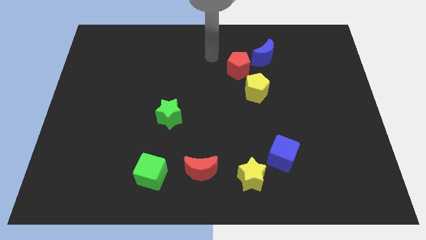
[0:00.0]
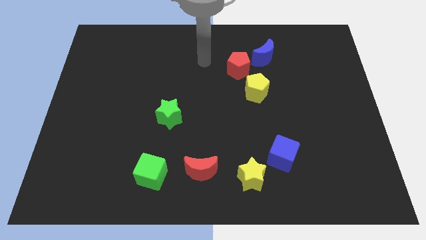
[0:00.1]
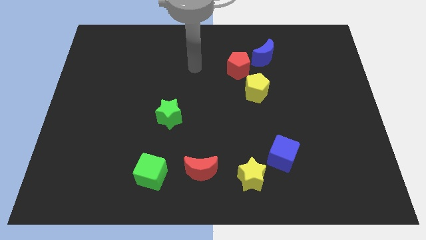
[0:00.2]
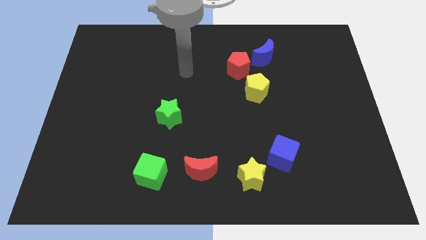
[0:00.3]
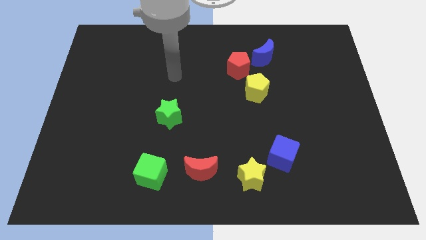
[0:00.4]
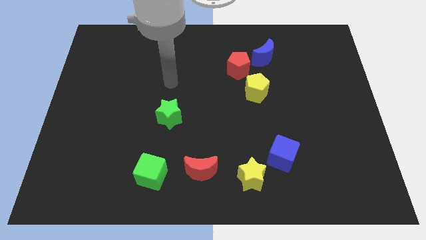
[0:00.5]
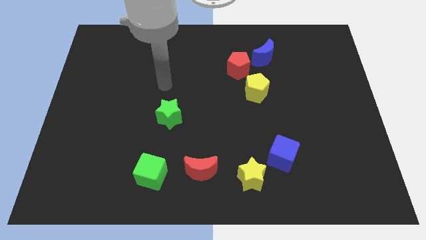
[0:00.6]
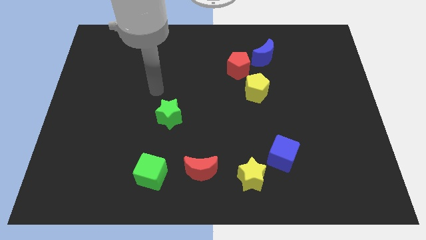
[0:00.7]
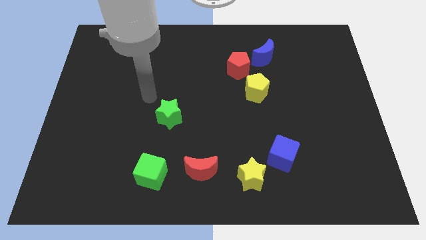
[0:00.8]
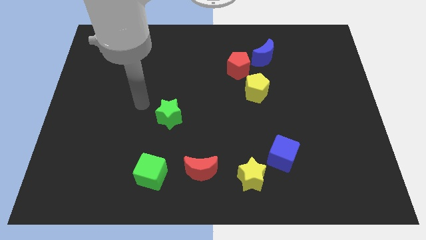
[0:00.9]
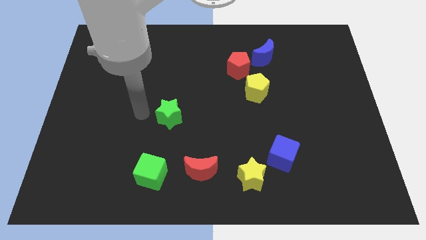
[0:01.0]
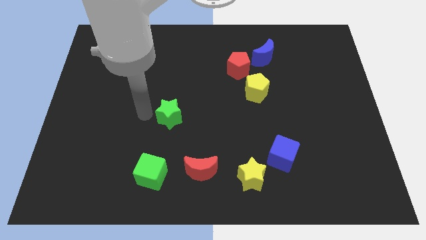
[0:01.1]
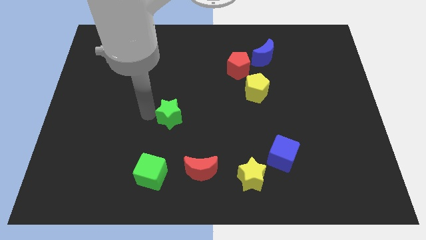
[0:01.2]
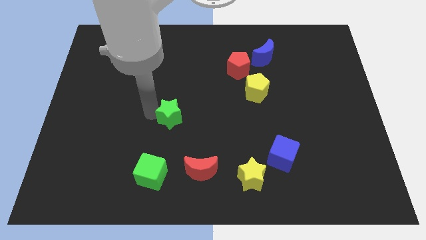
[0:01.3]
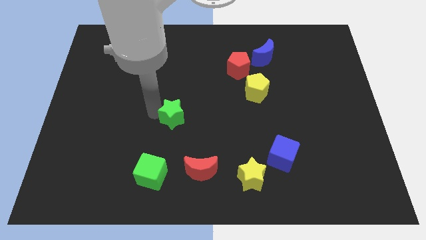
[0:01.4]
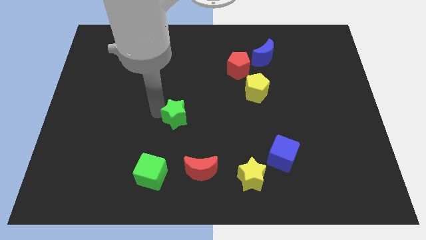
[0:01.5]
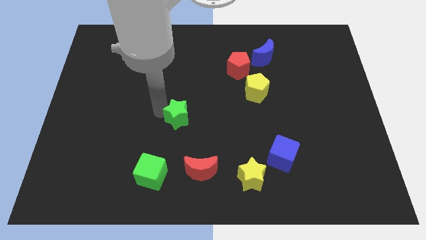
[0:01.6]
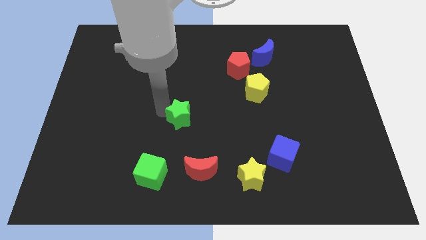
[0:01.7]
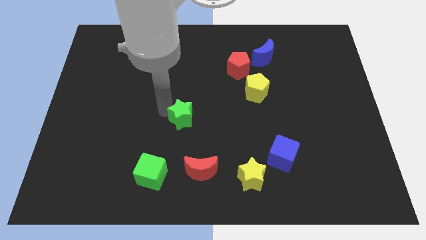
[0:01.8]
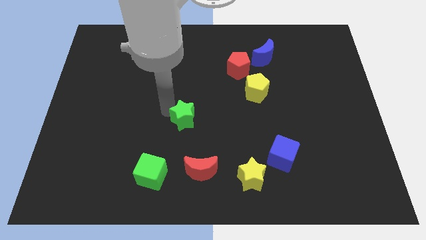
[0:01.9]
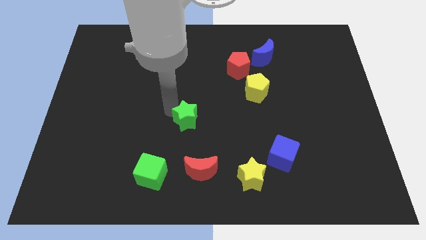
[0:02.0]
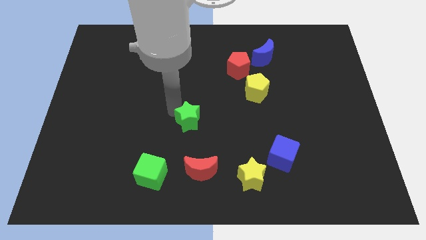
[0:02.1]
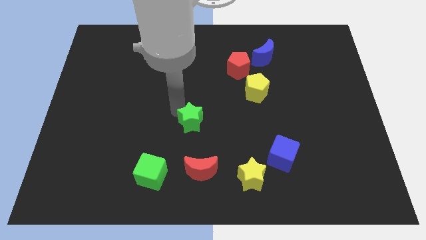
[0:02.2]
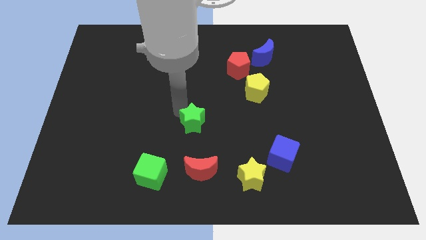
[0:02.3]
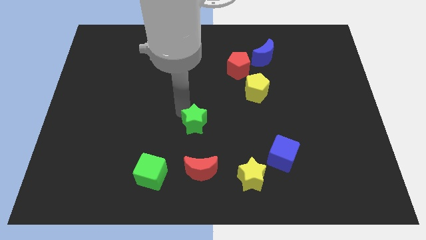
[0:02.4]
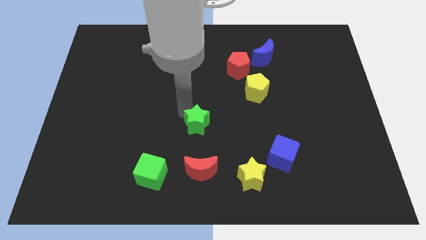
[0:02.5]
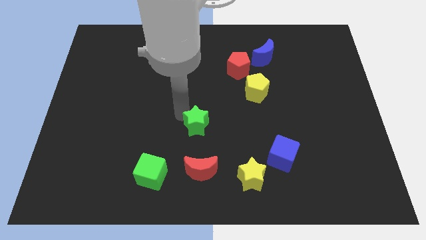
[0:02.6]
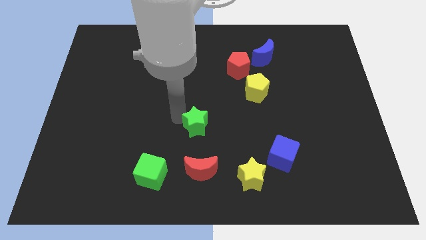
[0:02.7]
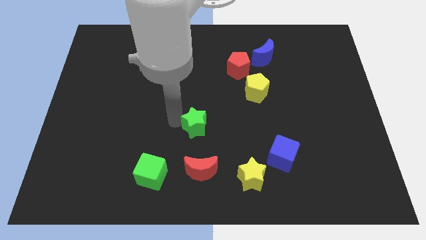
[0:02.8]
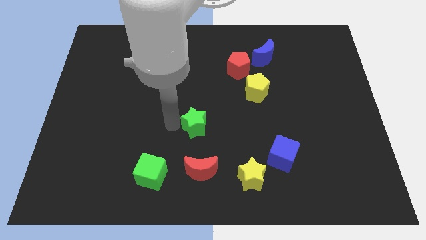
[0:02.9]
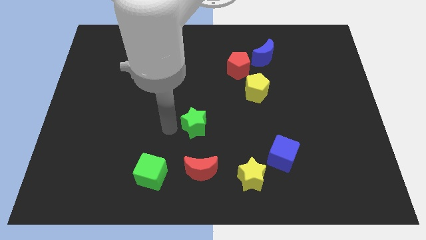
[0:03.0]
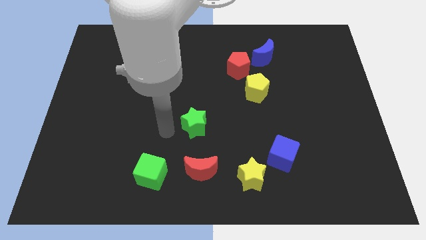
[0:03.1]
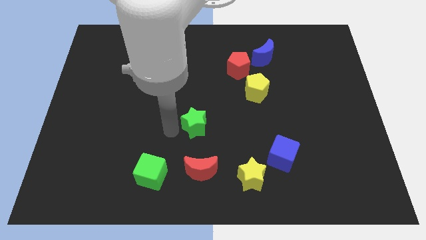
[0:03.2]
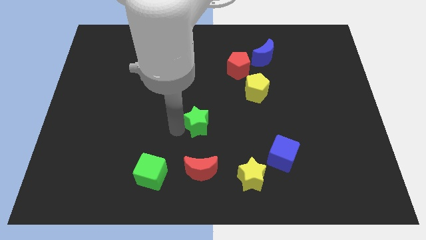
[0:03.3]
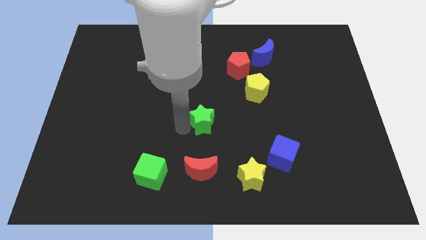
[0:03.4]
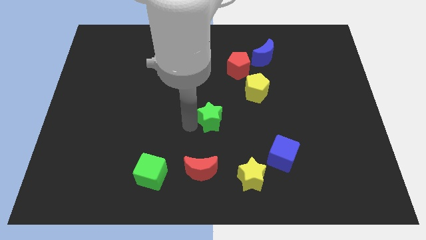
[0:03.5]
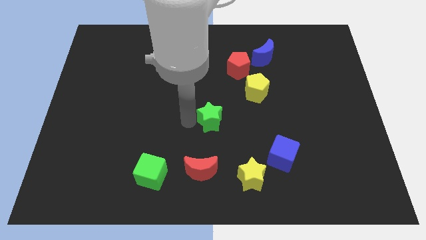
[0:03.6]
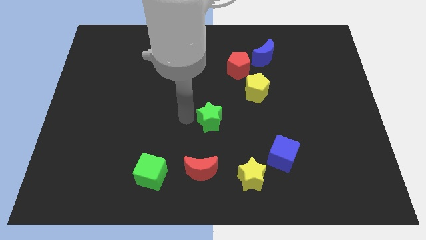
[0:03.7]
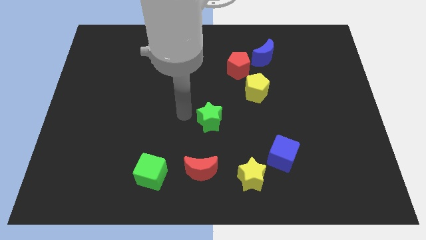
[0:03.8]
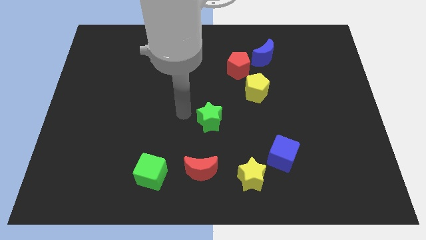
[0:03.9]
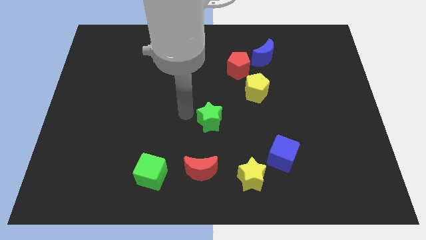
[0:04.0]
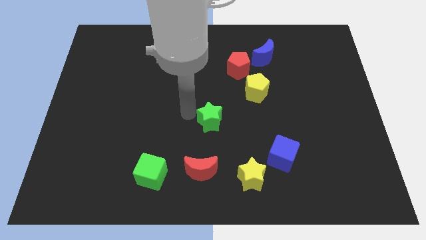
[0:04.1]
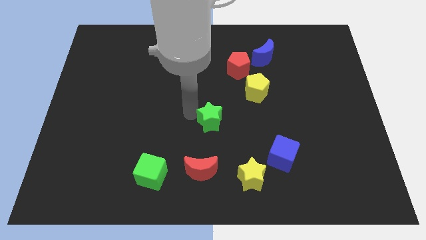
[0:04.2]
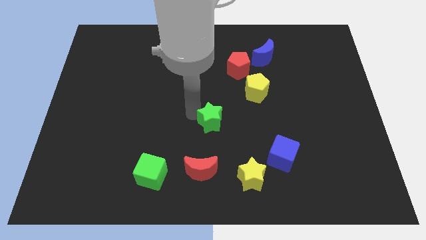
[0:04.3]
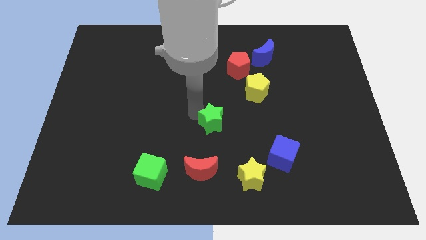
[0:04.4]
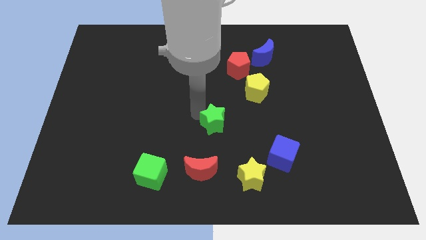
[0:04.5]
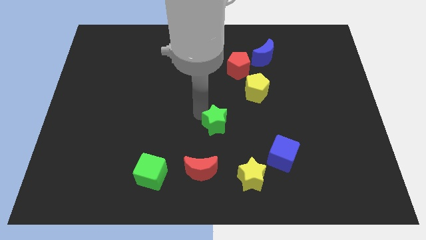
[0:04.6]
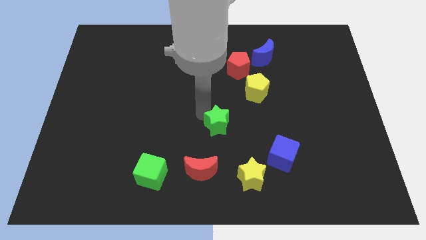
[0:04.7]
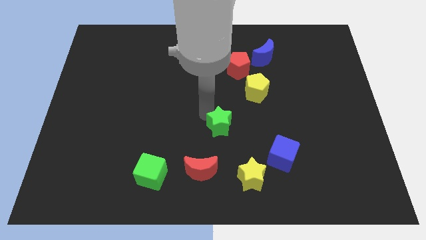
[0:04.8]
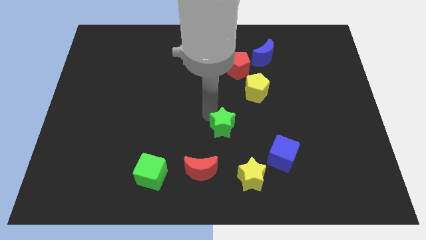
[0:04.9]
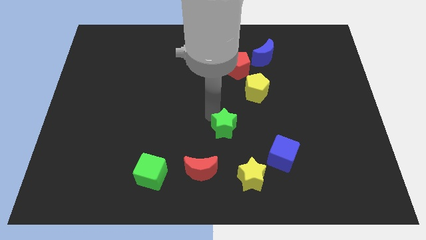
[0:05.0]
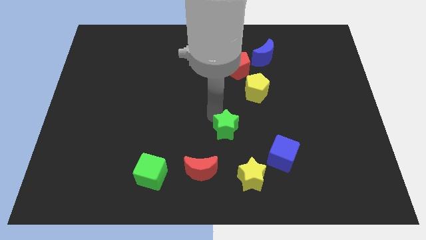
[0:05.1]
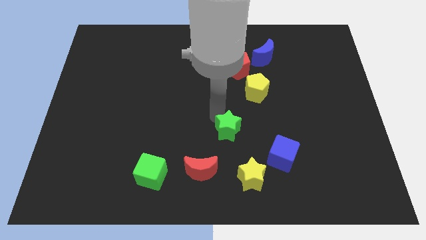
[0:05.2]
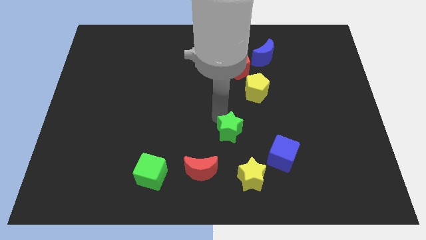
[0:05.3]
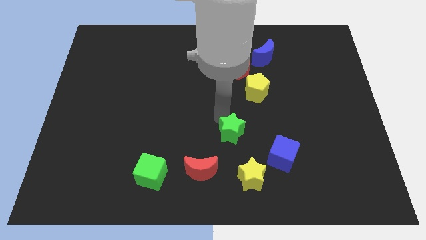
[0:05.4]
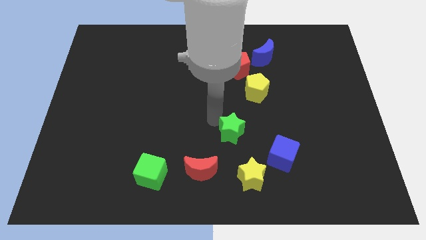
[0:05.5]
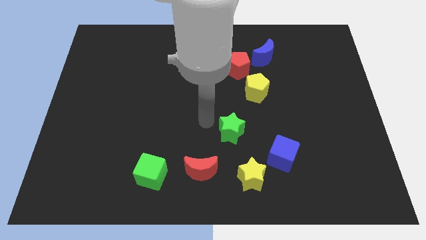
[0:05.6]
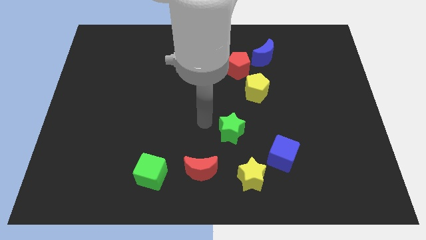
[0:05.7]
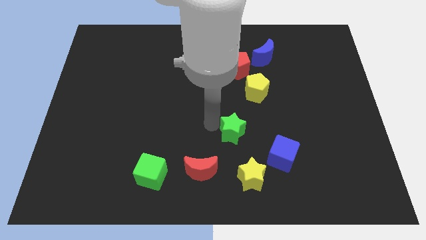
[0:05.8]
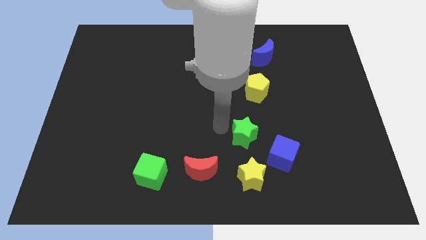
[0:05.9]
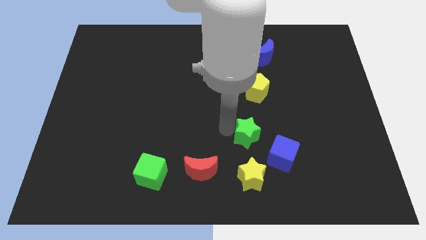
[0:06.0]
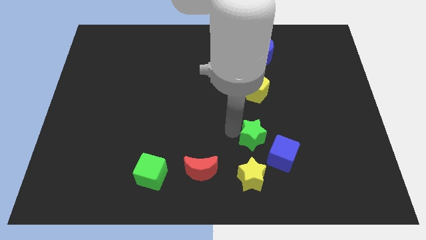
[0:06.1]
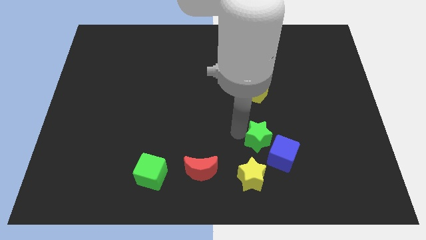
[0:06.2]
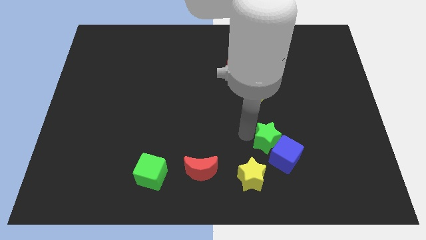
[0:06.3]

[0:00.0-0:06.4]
move the green star to the blue cube

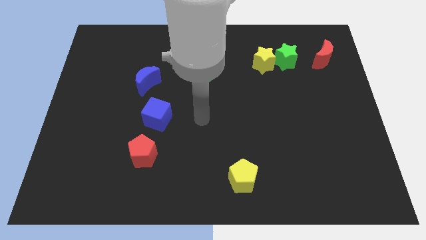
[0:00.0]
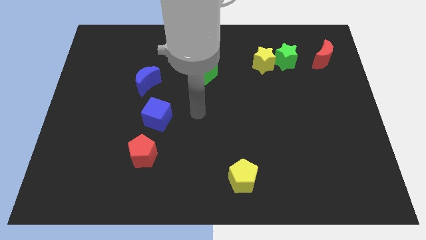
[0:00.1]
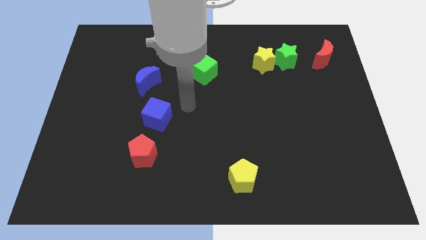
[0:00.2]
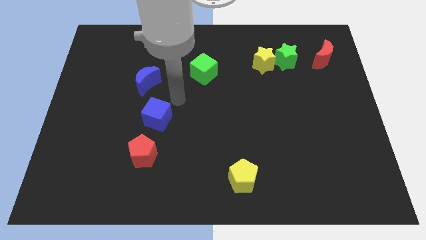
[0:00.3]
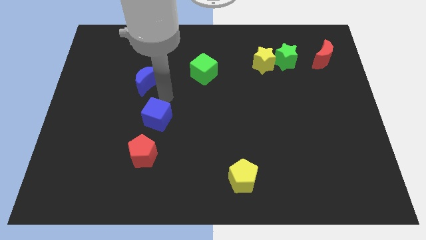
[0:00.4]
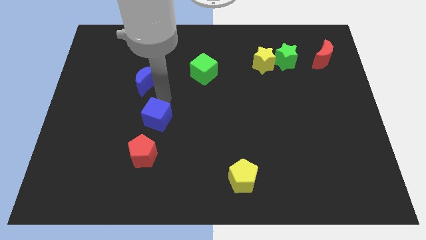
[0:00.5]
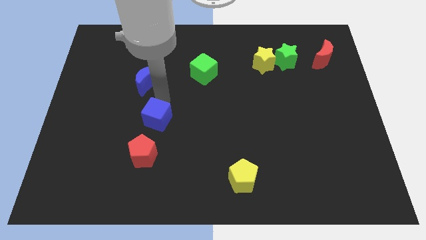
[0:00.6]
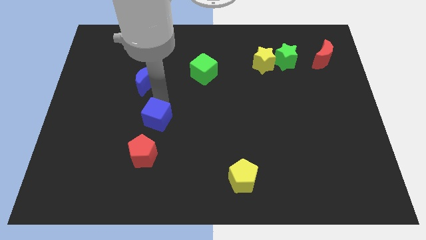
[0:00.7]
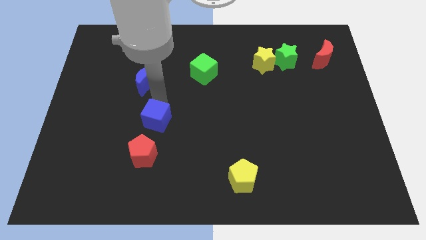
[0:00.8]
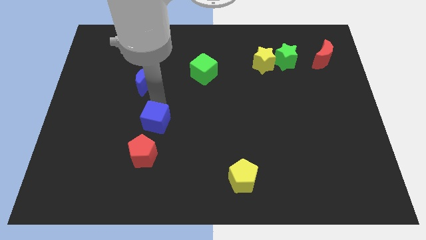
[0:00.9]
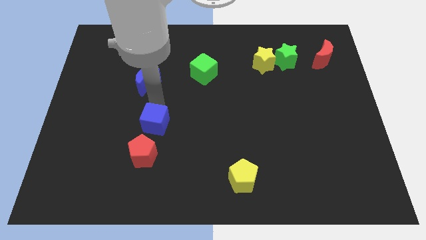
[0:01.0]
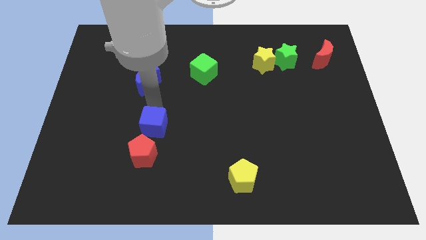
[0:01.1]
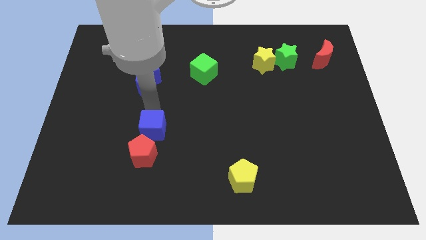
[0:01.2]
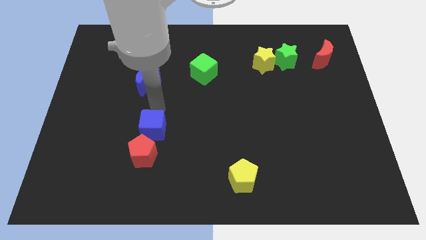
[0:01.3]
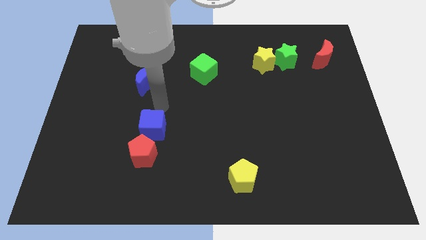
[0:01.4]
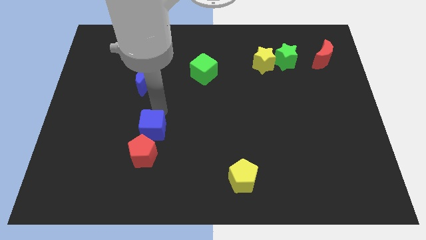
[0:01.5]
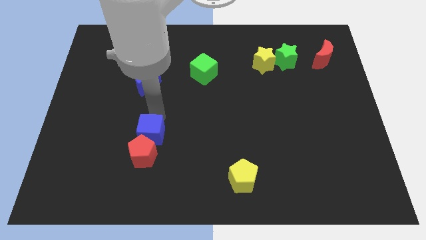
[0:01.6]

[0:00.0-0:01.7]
push the blue cube towards the red pentagon
